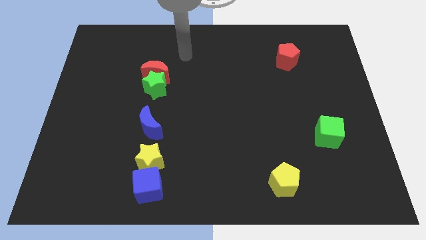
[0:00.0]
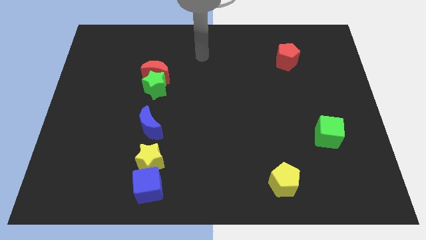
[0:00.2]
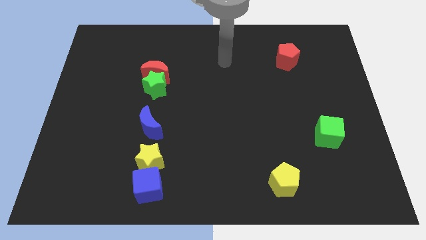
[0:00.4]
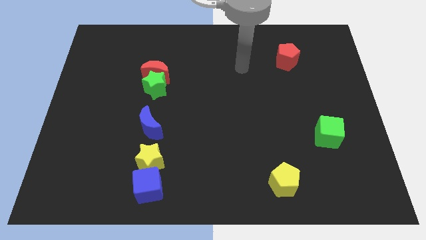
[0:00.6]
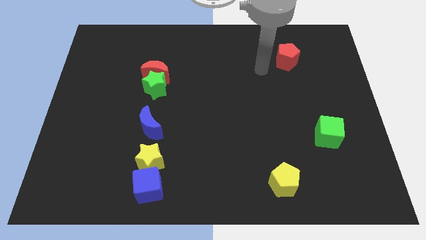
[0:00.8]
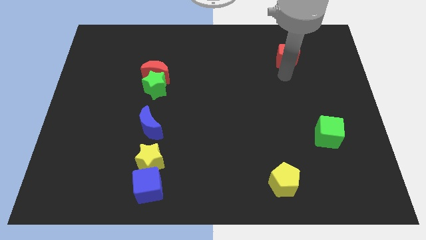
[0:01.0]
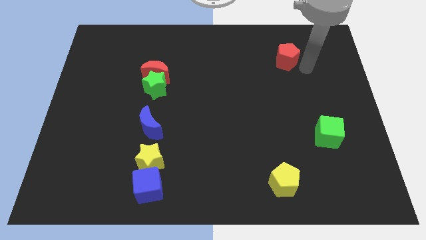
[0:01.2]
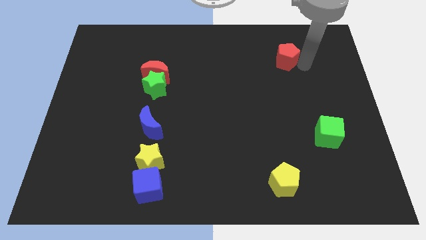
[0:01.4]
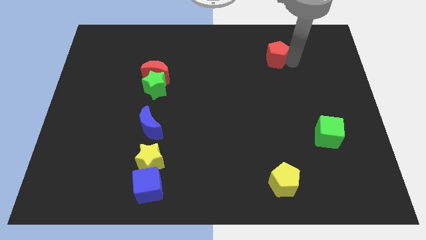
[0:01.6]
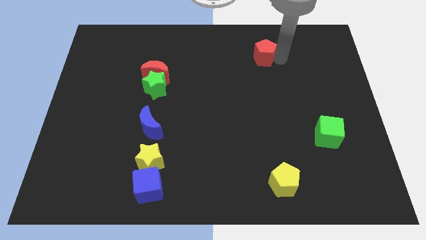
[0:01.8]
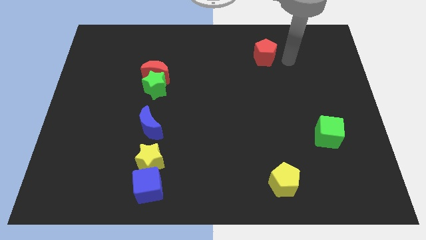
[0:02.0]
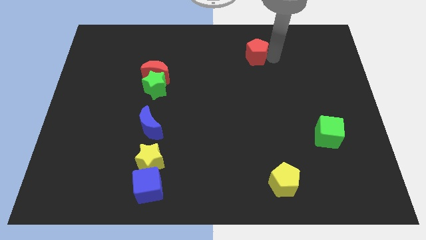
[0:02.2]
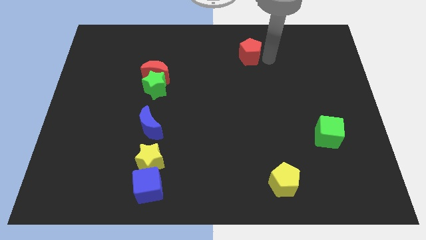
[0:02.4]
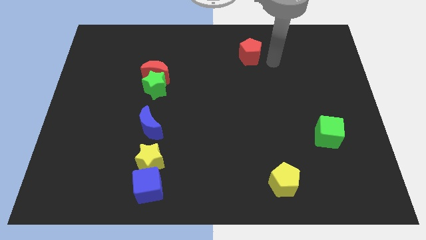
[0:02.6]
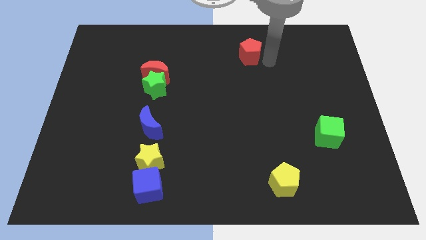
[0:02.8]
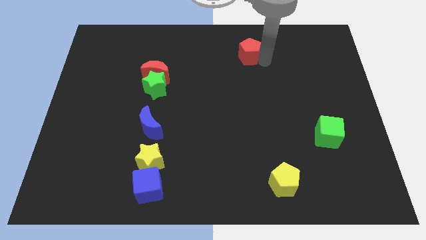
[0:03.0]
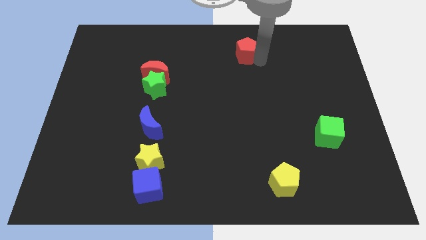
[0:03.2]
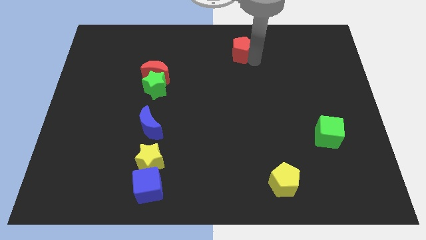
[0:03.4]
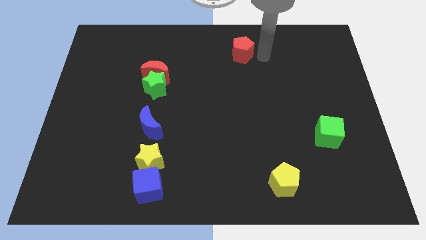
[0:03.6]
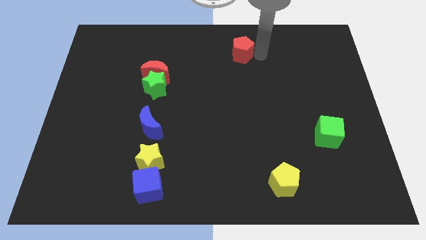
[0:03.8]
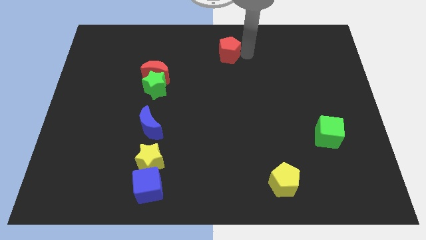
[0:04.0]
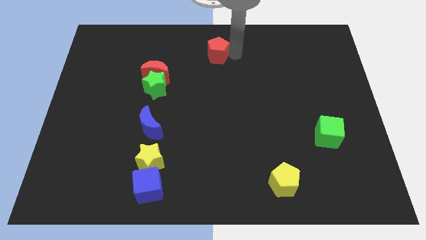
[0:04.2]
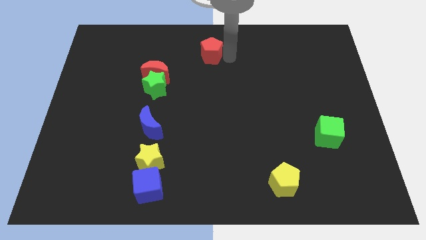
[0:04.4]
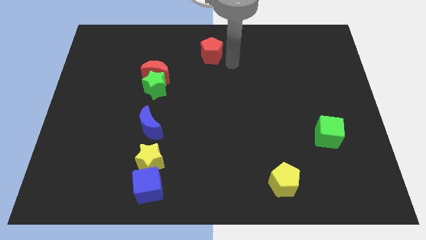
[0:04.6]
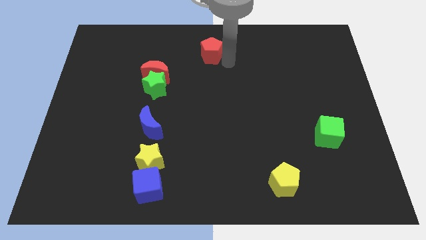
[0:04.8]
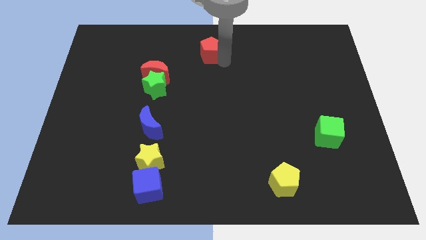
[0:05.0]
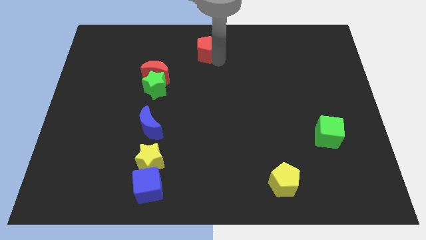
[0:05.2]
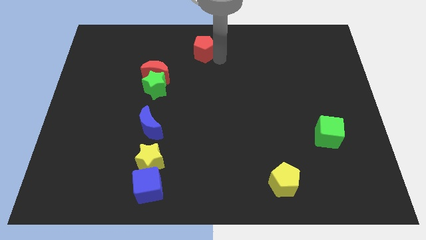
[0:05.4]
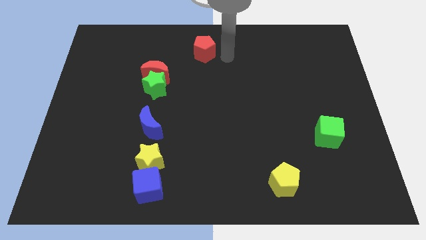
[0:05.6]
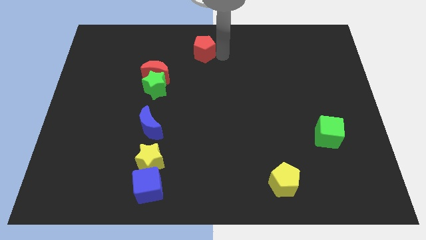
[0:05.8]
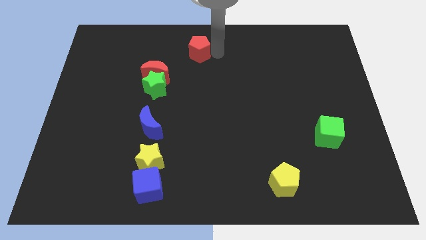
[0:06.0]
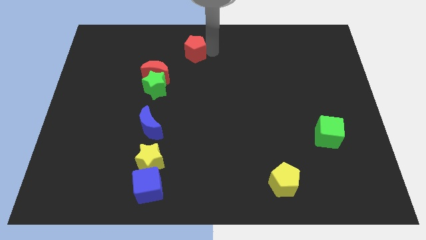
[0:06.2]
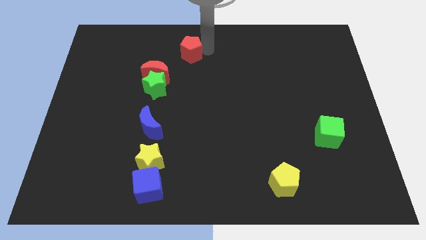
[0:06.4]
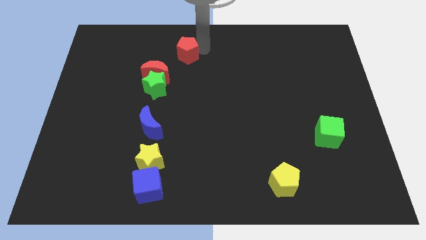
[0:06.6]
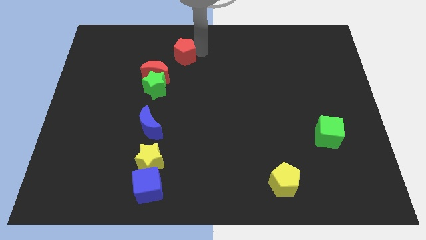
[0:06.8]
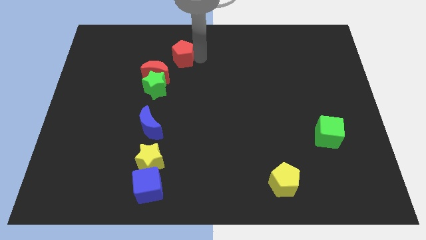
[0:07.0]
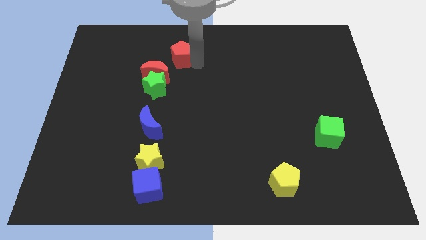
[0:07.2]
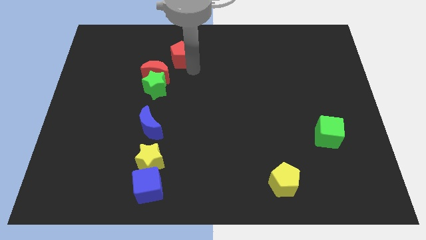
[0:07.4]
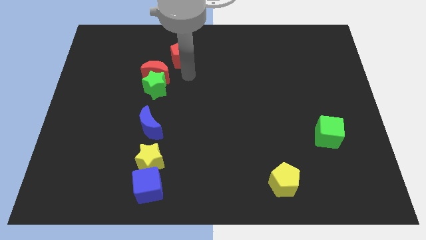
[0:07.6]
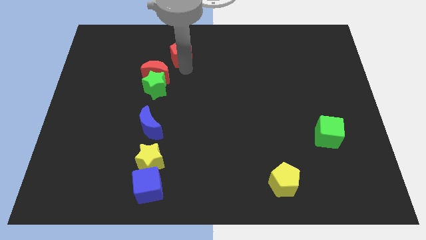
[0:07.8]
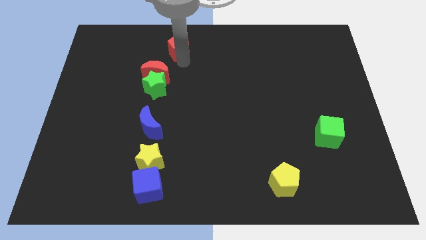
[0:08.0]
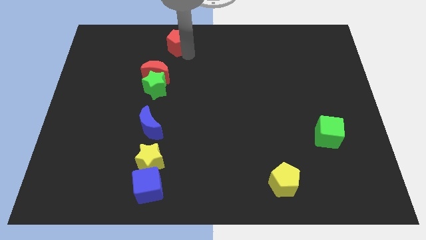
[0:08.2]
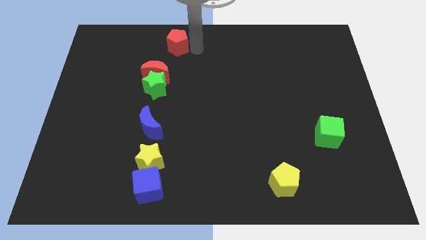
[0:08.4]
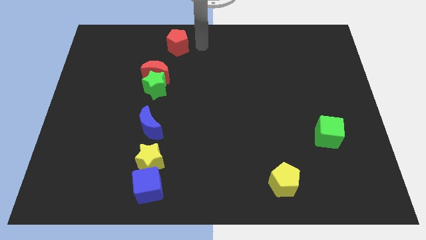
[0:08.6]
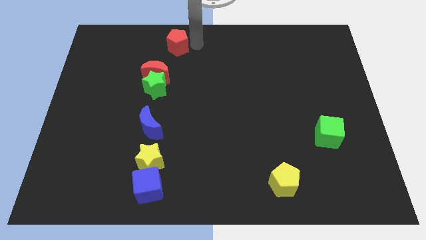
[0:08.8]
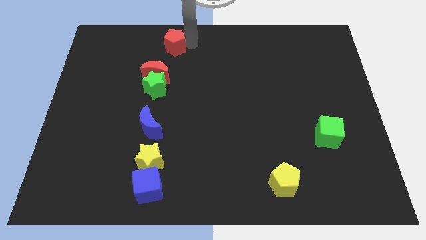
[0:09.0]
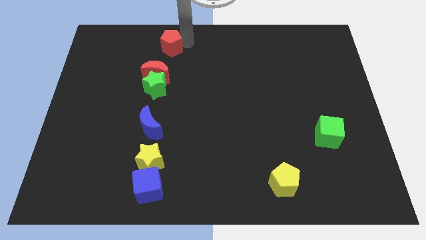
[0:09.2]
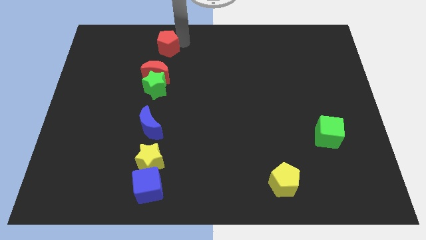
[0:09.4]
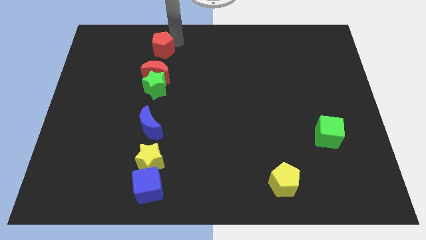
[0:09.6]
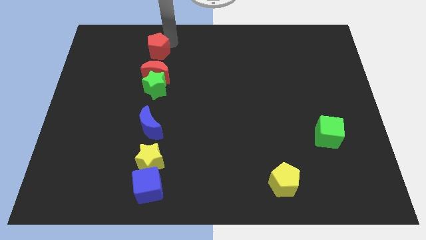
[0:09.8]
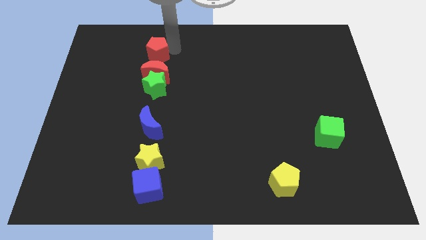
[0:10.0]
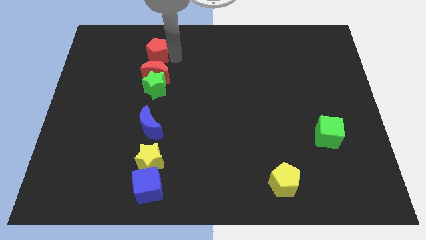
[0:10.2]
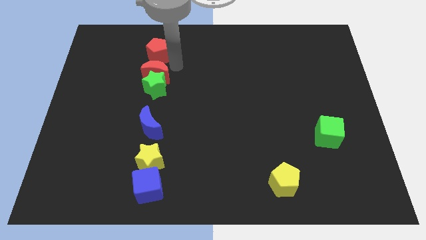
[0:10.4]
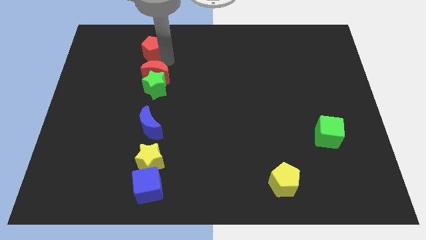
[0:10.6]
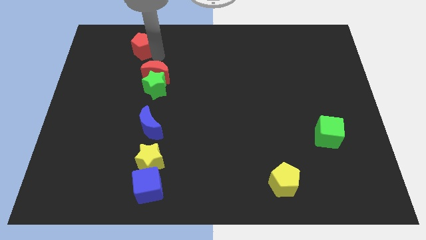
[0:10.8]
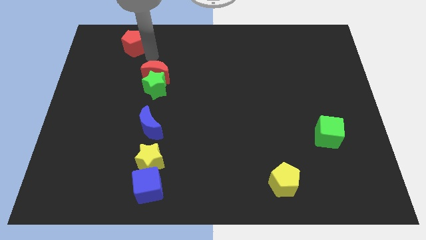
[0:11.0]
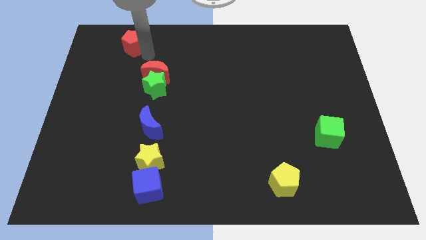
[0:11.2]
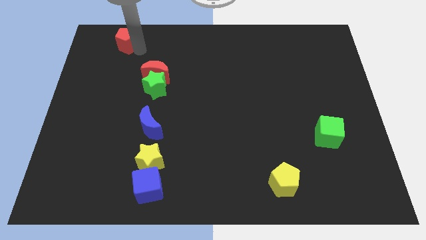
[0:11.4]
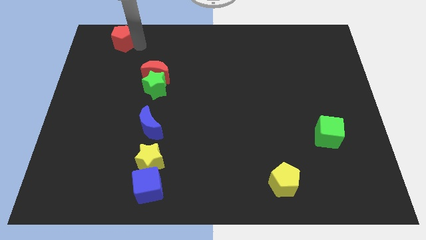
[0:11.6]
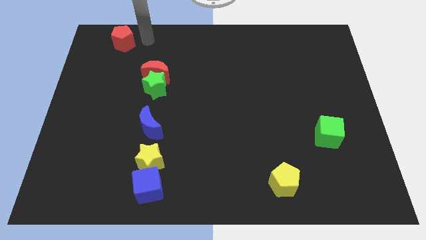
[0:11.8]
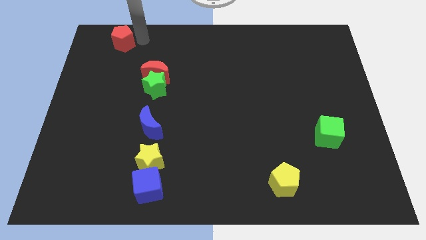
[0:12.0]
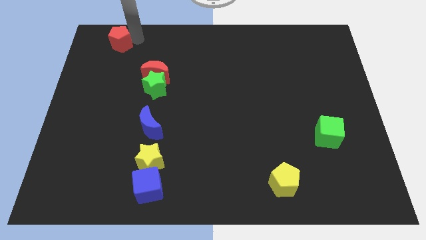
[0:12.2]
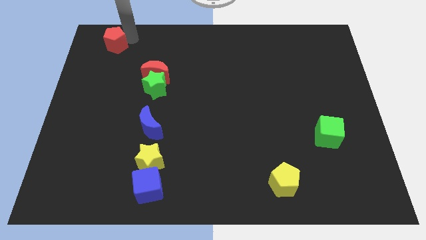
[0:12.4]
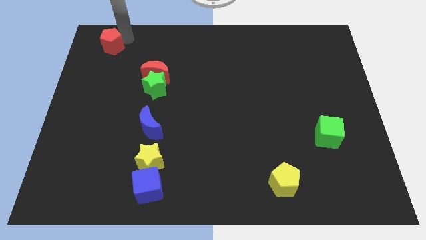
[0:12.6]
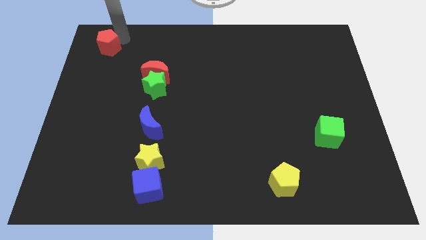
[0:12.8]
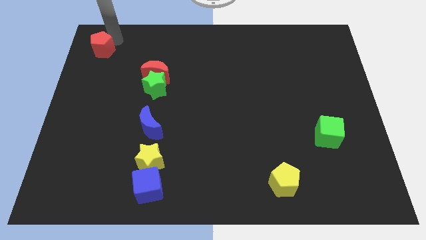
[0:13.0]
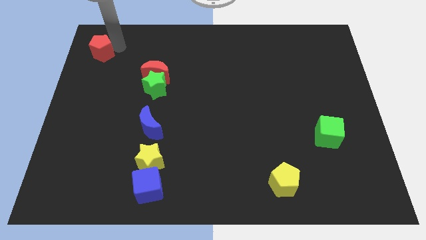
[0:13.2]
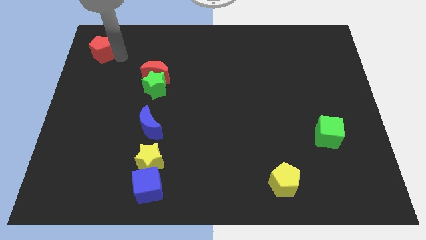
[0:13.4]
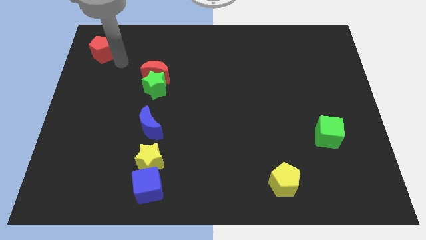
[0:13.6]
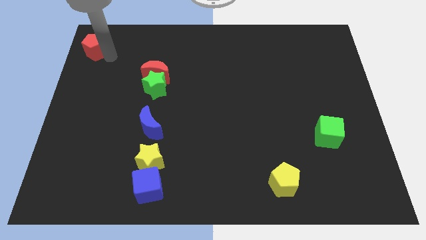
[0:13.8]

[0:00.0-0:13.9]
slide the red pentagon to the upper left corner
